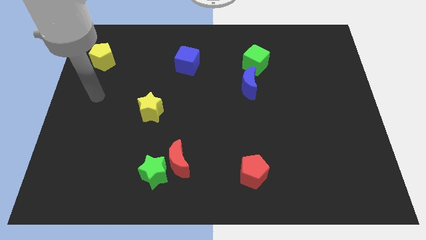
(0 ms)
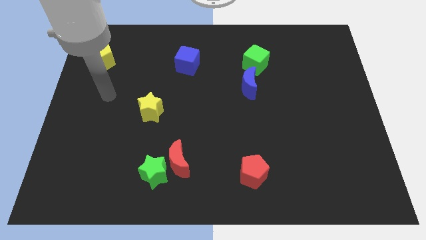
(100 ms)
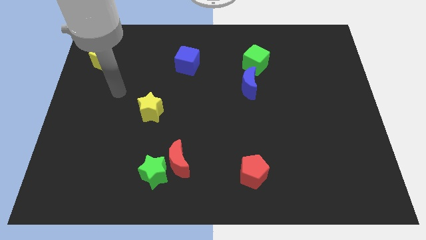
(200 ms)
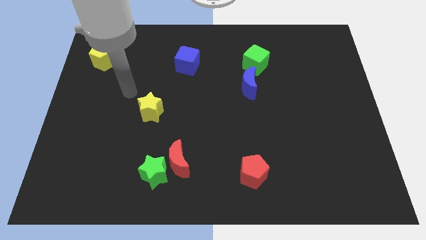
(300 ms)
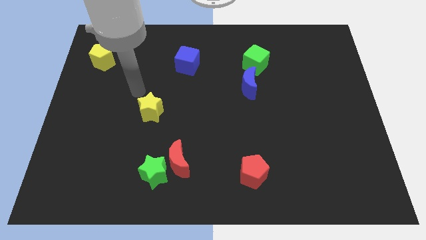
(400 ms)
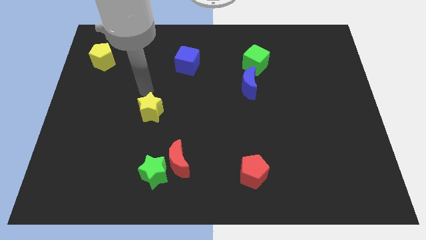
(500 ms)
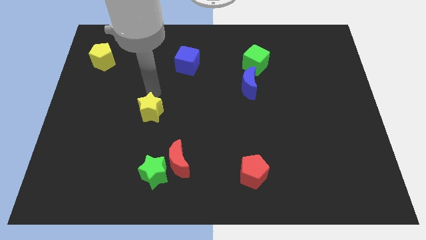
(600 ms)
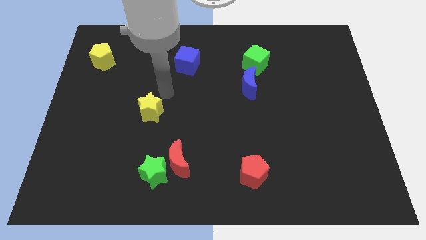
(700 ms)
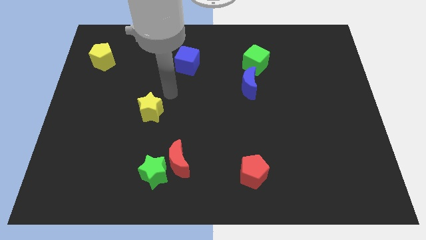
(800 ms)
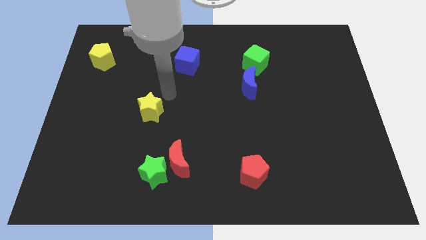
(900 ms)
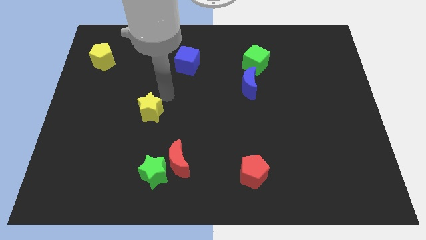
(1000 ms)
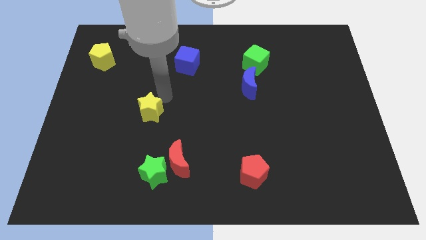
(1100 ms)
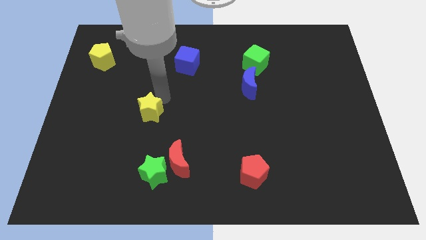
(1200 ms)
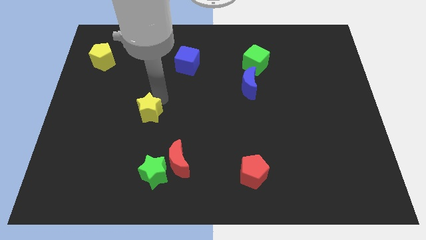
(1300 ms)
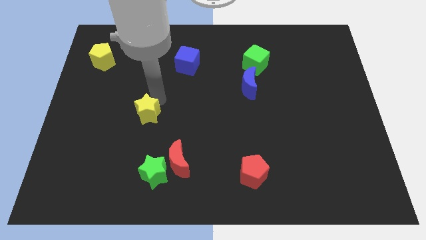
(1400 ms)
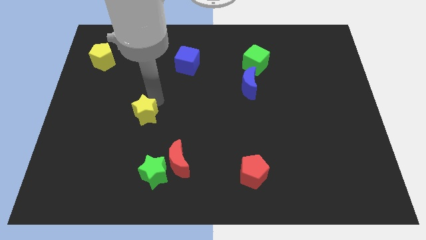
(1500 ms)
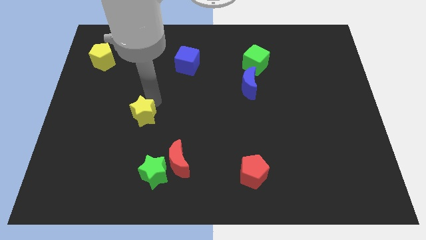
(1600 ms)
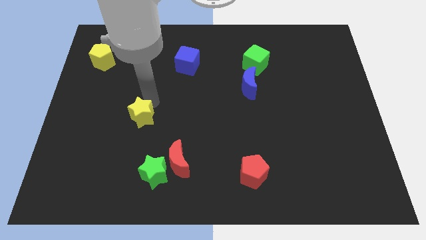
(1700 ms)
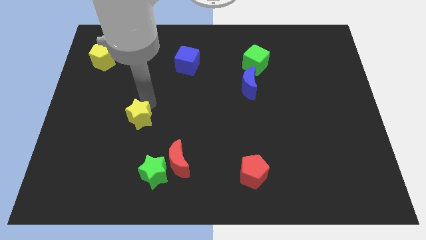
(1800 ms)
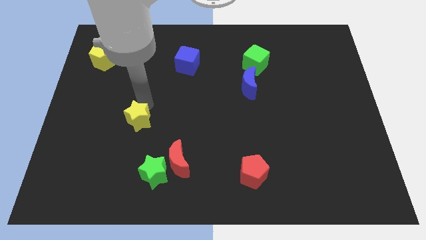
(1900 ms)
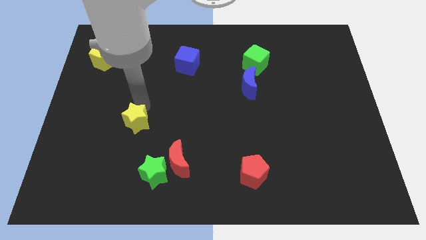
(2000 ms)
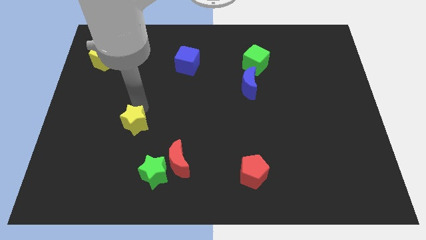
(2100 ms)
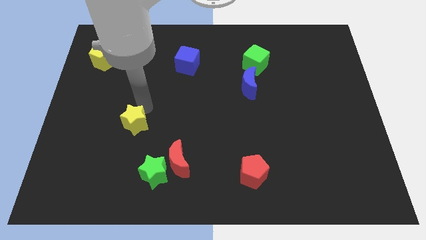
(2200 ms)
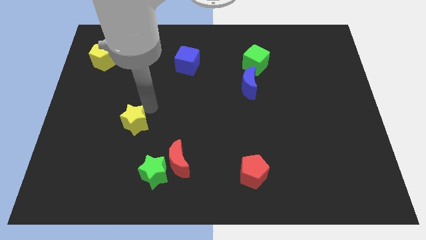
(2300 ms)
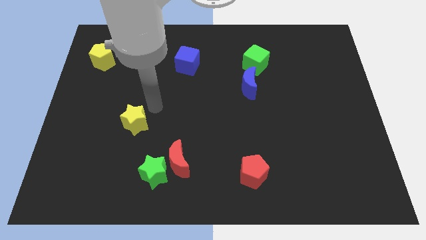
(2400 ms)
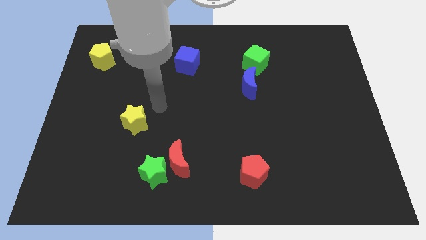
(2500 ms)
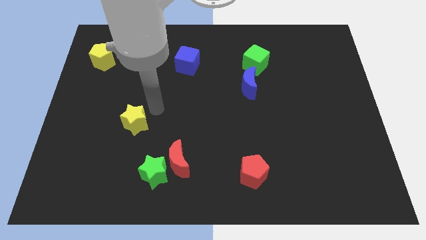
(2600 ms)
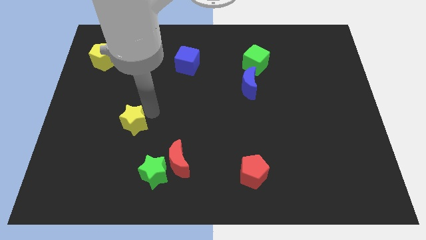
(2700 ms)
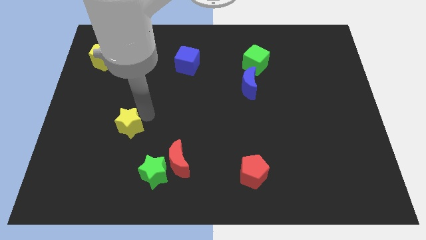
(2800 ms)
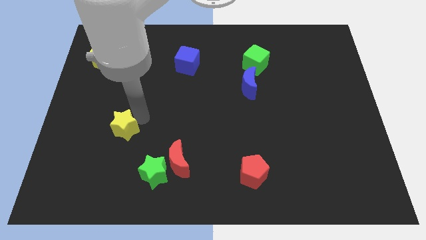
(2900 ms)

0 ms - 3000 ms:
push the yellow star a little downwards and then left

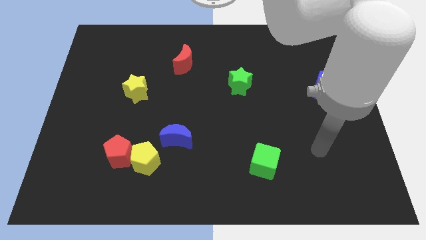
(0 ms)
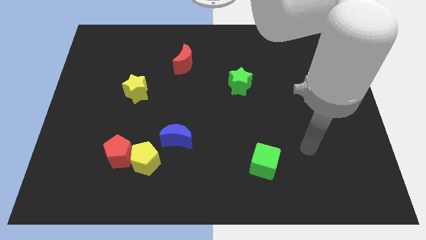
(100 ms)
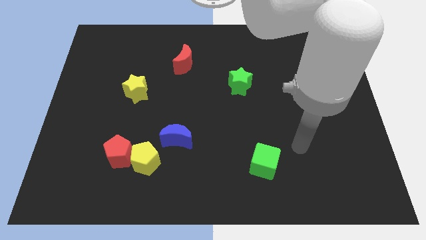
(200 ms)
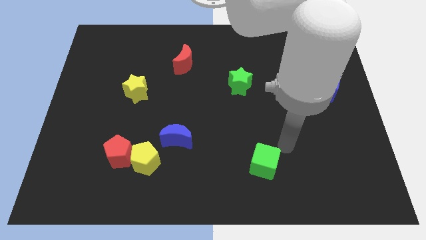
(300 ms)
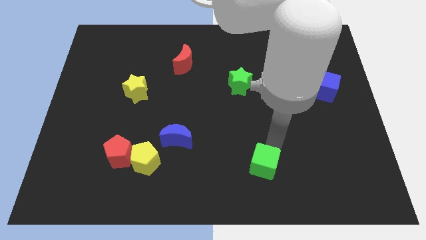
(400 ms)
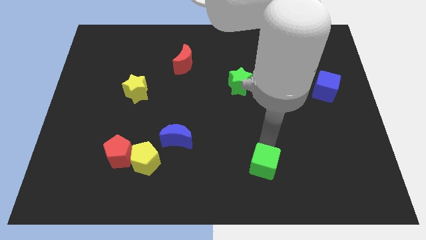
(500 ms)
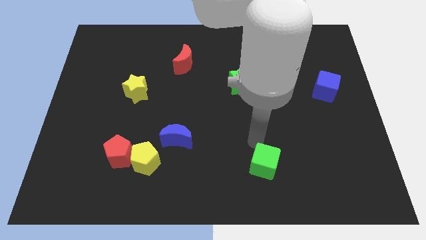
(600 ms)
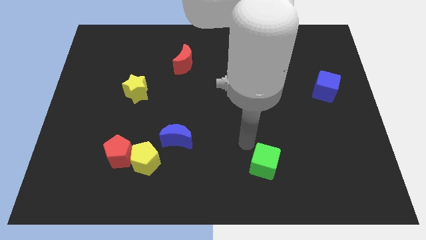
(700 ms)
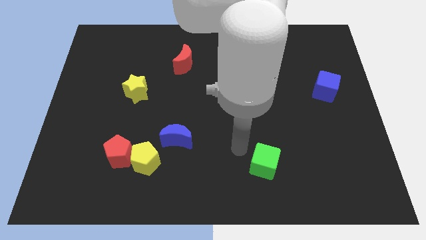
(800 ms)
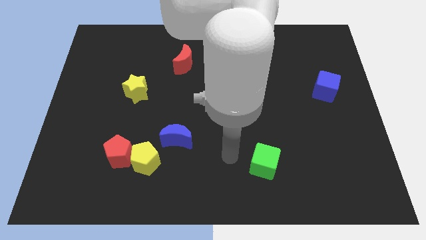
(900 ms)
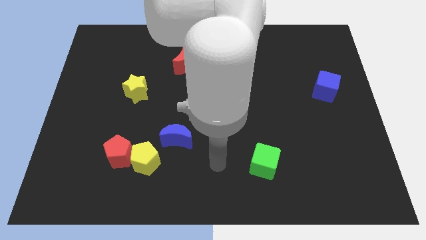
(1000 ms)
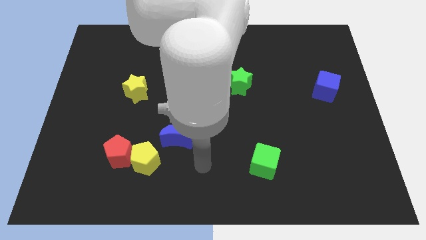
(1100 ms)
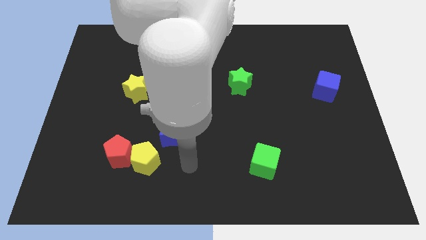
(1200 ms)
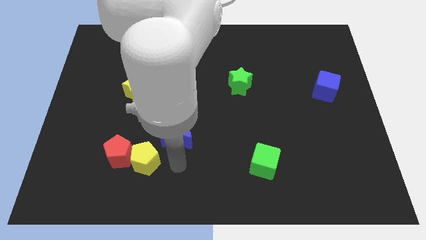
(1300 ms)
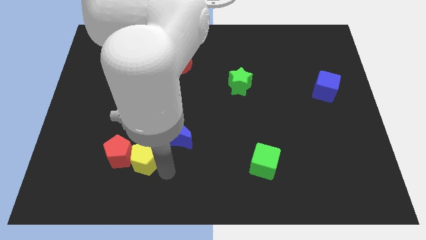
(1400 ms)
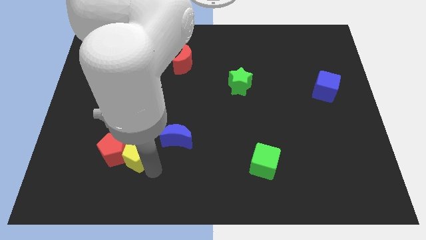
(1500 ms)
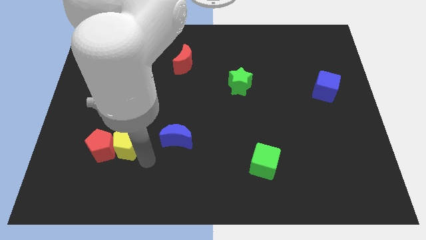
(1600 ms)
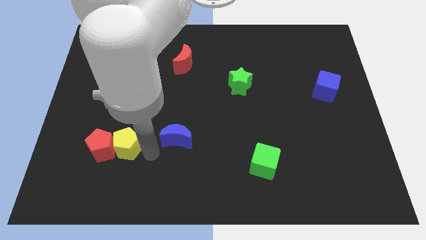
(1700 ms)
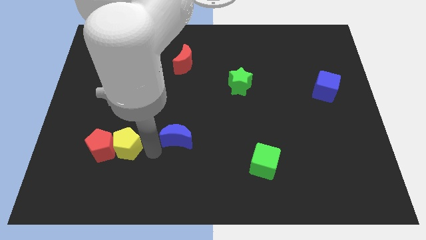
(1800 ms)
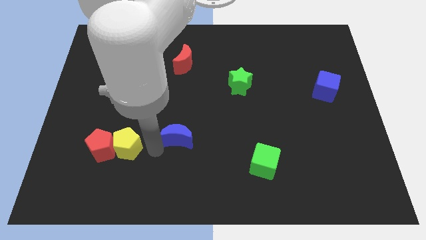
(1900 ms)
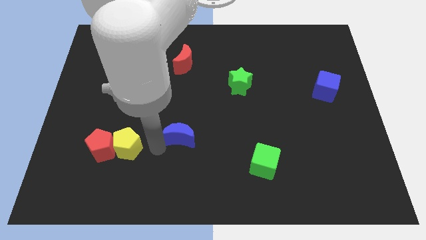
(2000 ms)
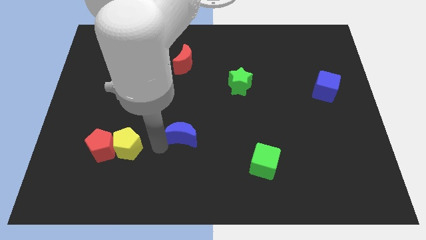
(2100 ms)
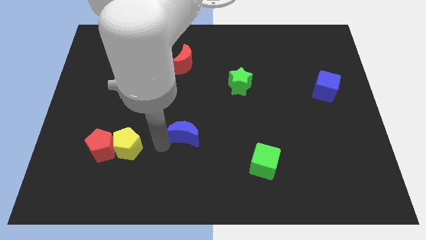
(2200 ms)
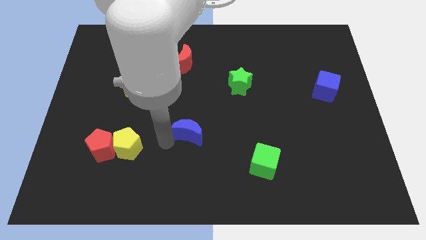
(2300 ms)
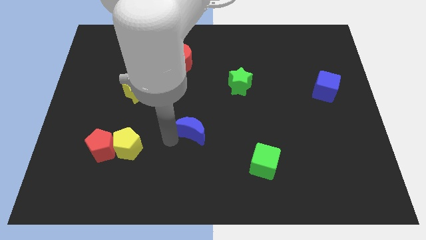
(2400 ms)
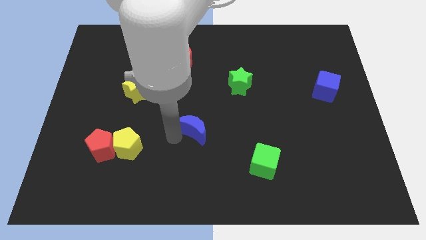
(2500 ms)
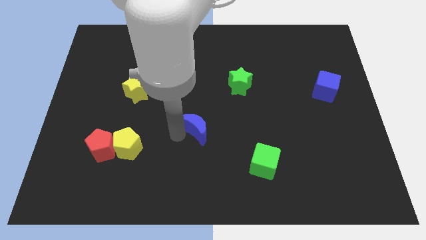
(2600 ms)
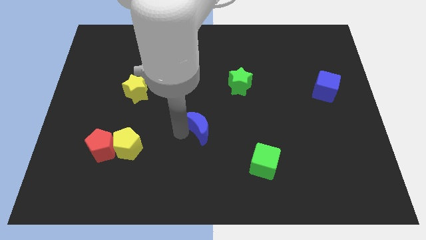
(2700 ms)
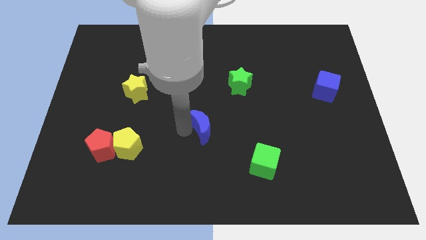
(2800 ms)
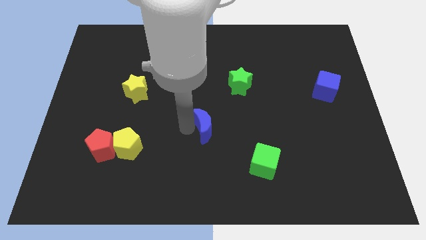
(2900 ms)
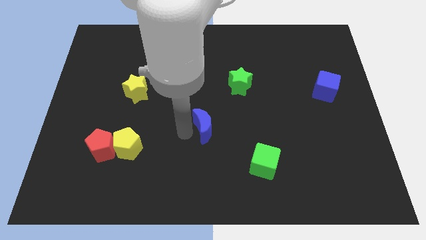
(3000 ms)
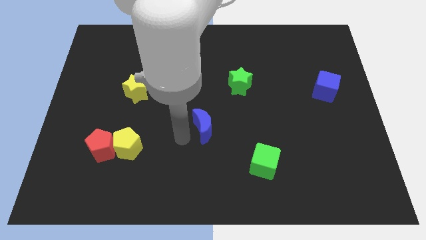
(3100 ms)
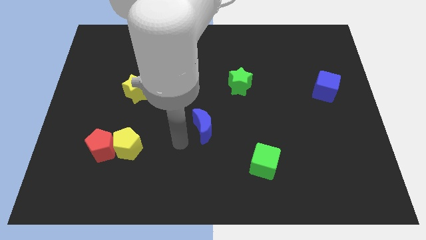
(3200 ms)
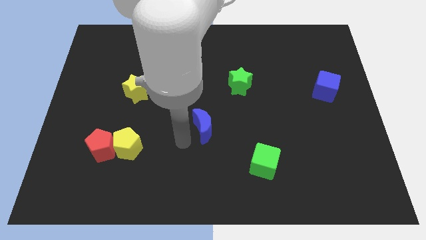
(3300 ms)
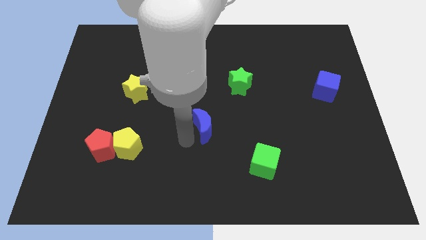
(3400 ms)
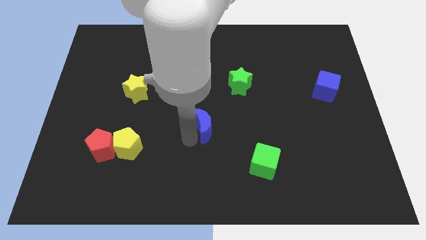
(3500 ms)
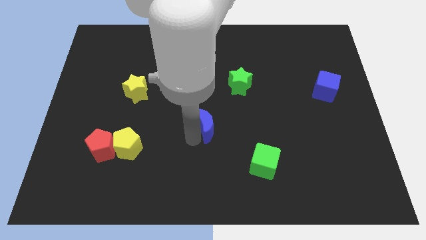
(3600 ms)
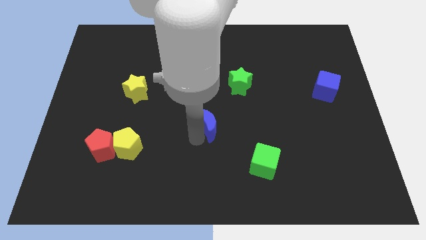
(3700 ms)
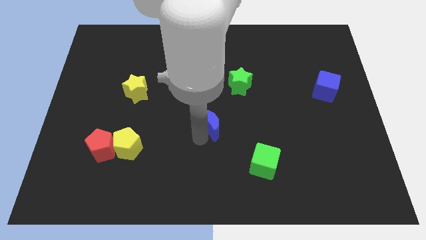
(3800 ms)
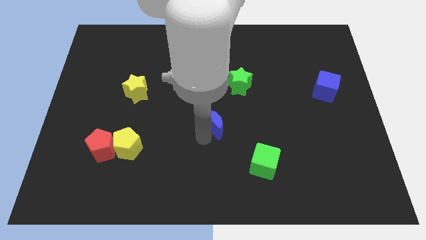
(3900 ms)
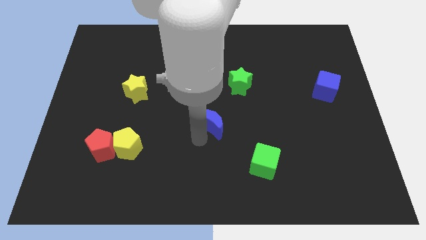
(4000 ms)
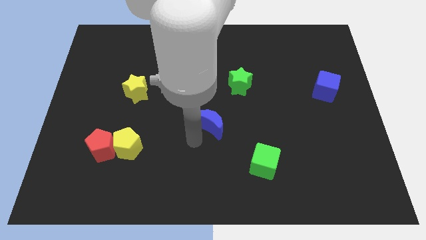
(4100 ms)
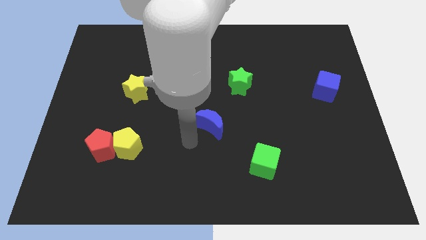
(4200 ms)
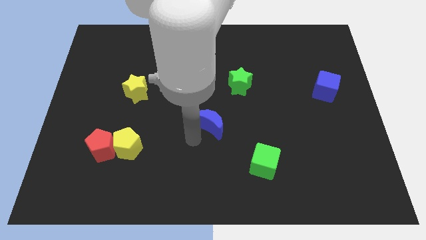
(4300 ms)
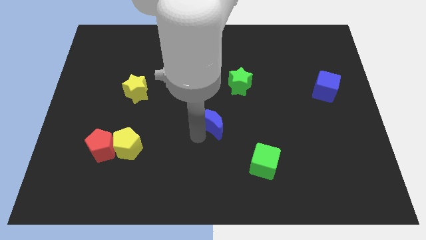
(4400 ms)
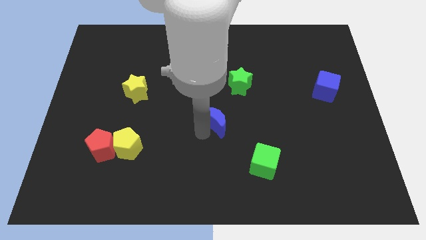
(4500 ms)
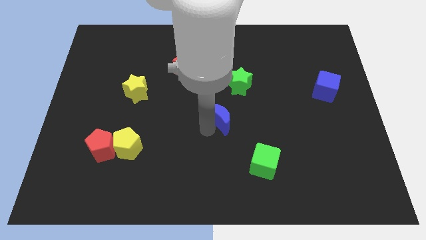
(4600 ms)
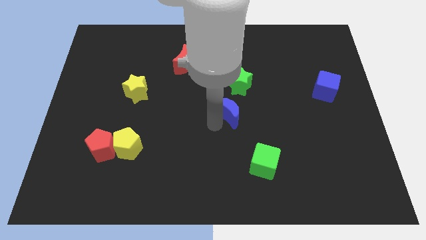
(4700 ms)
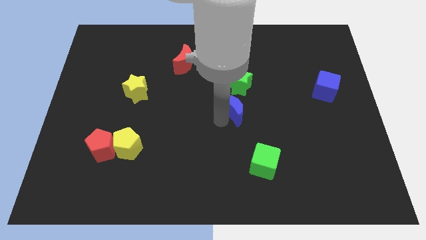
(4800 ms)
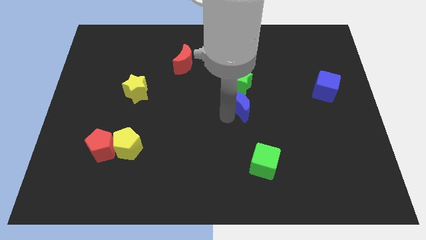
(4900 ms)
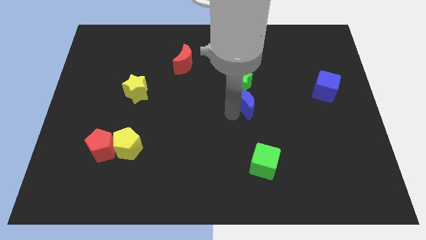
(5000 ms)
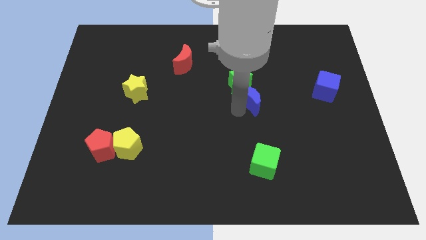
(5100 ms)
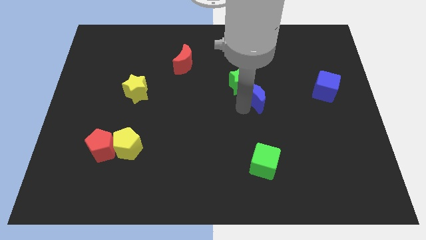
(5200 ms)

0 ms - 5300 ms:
move the blue moon up and to the right
